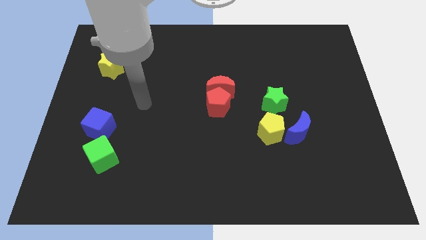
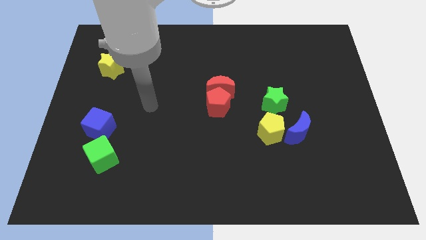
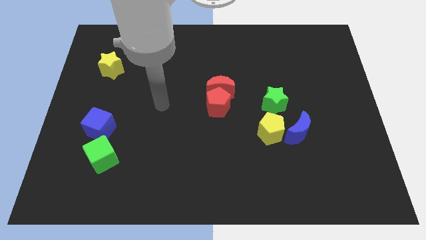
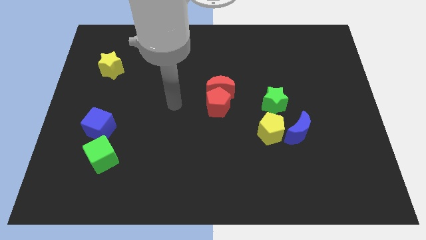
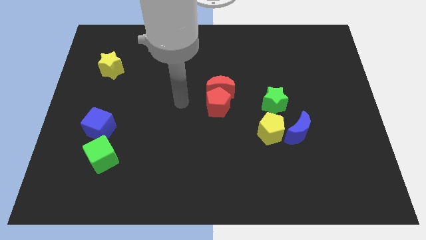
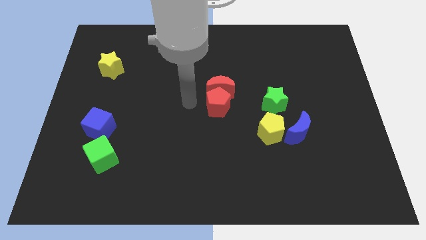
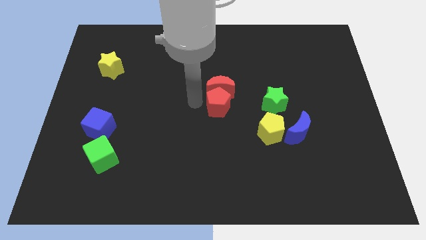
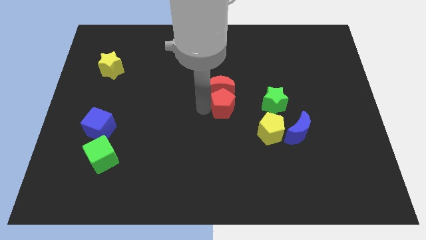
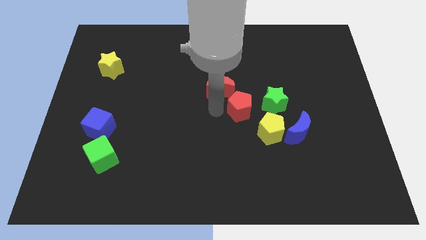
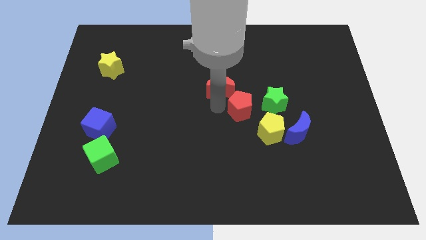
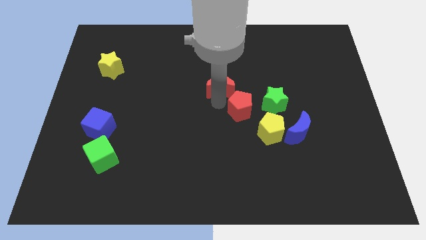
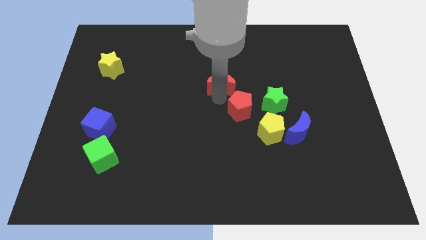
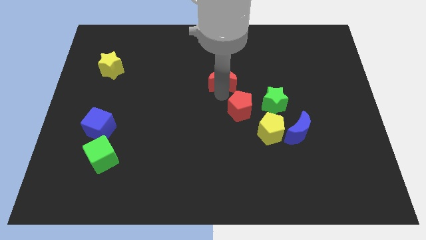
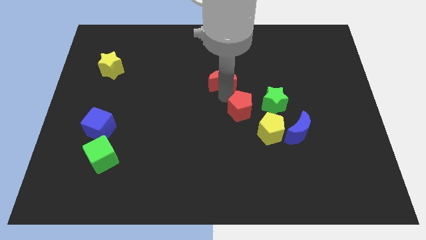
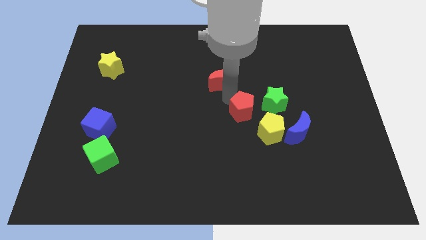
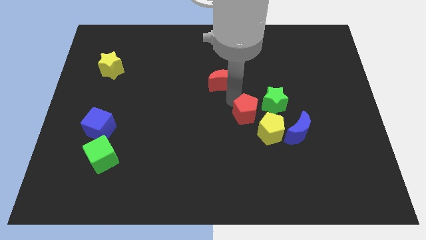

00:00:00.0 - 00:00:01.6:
move the red moon away from the red pentagon

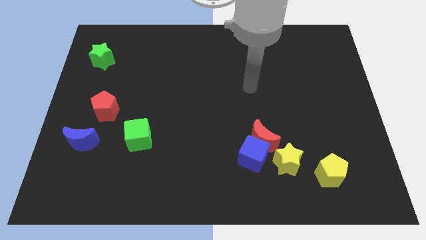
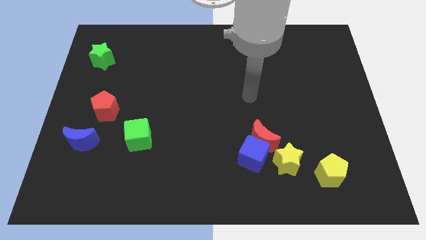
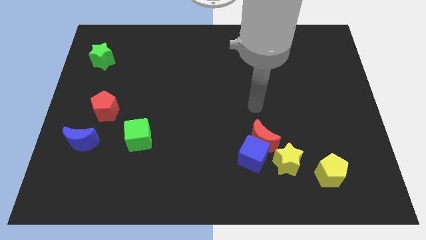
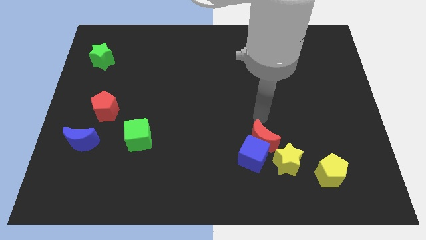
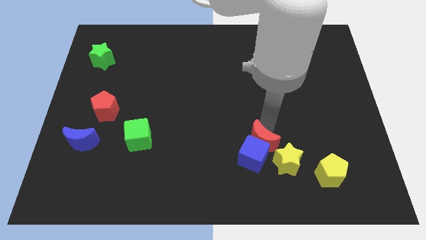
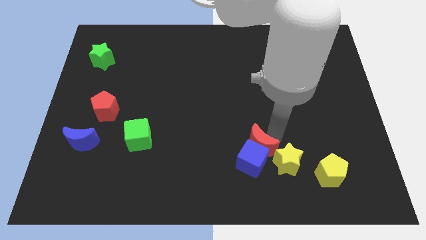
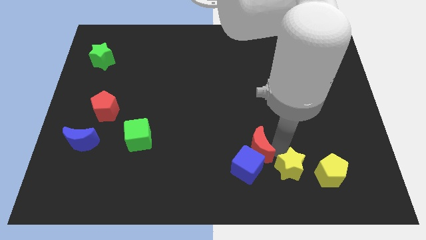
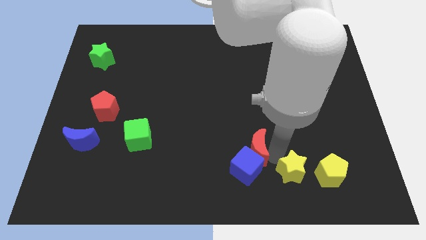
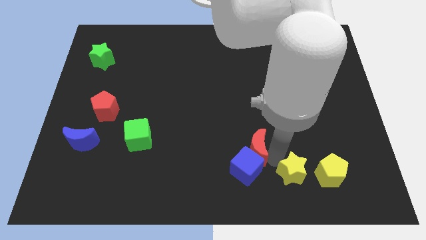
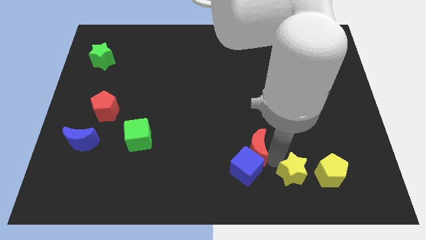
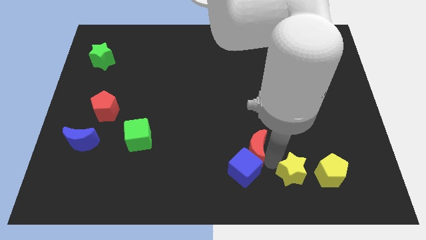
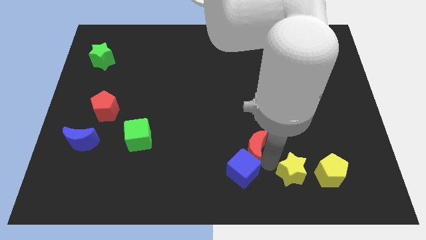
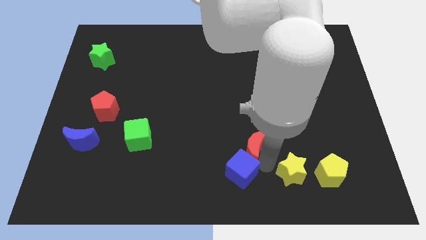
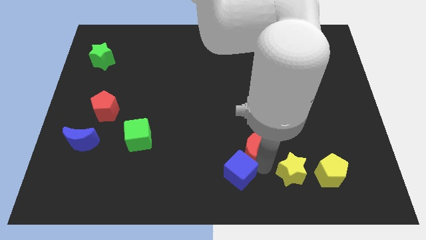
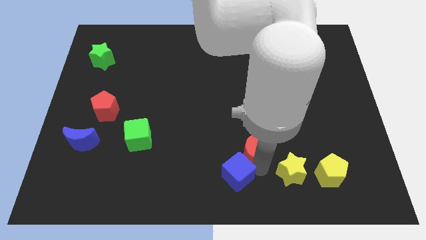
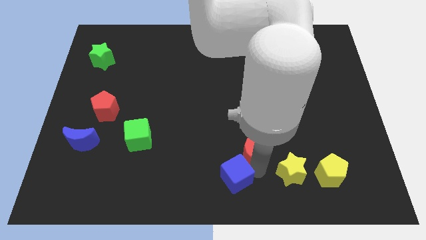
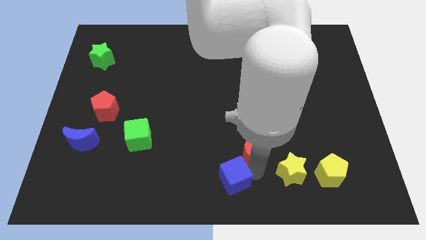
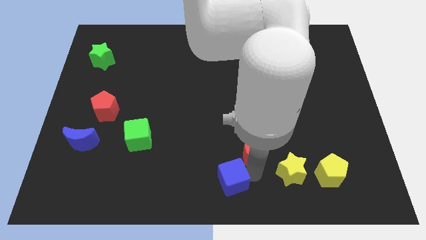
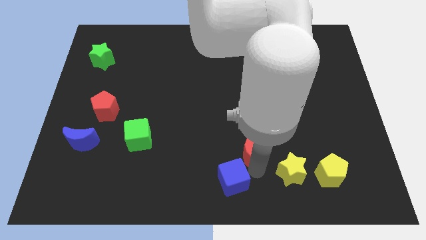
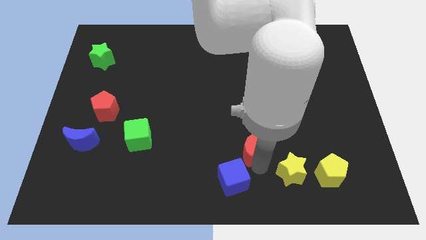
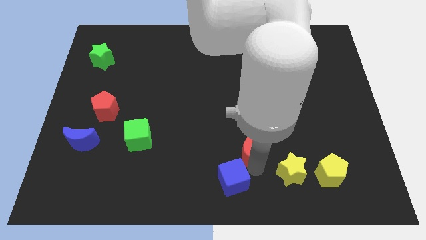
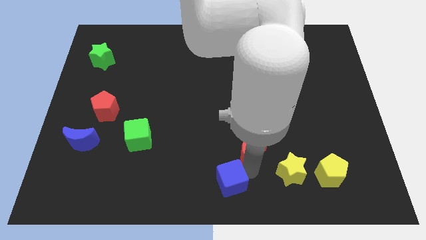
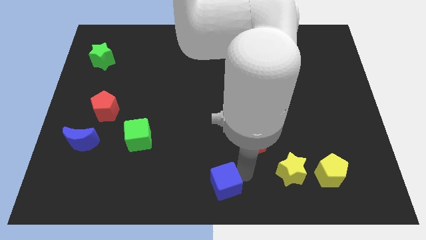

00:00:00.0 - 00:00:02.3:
separate the blue cube from the red moon and yellow star

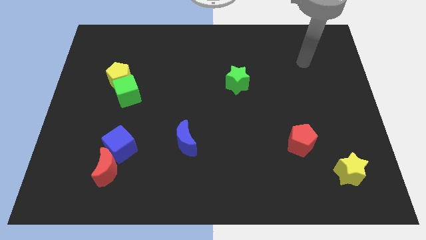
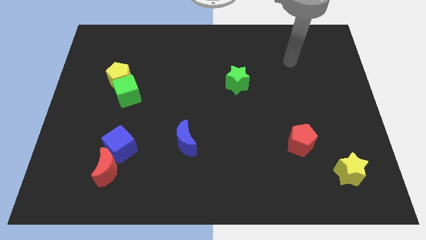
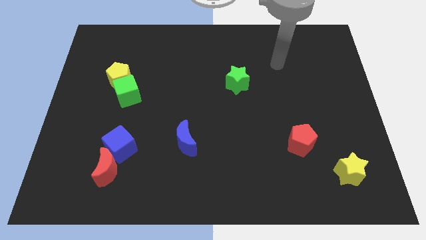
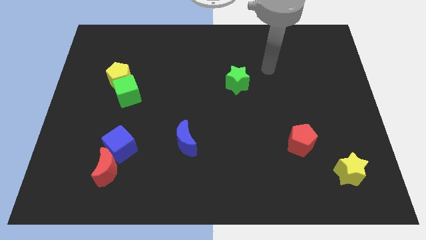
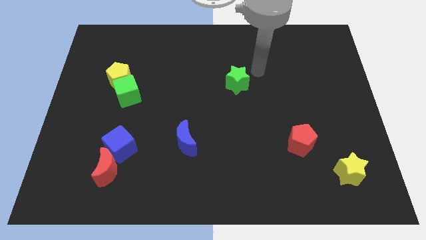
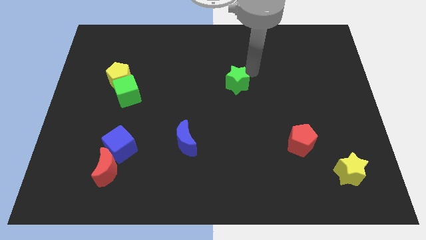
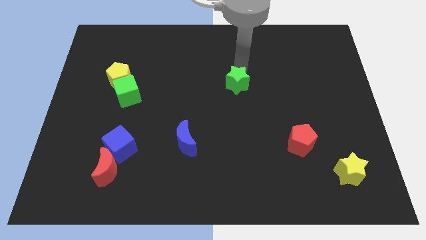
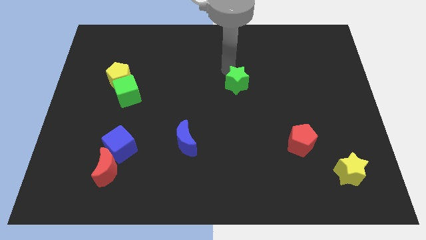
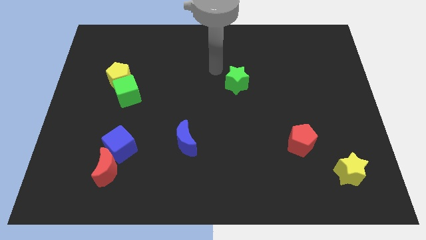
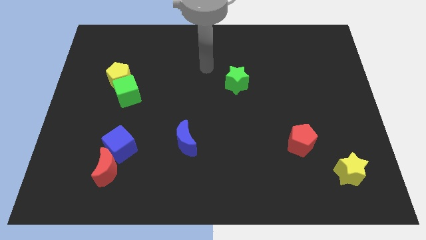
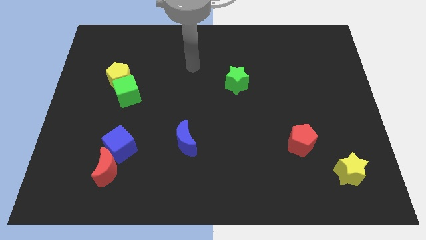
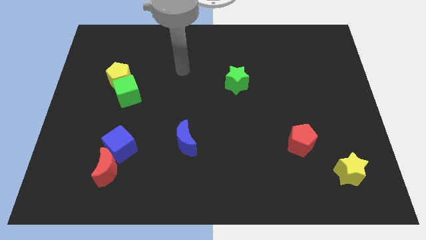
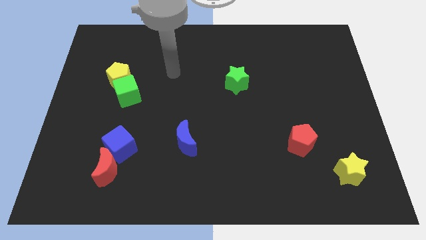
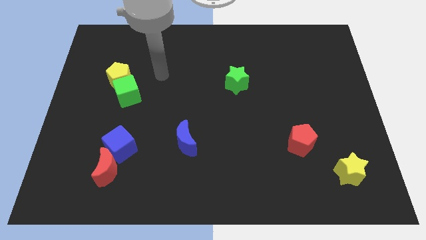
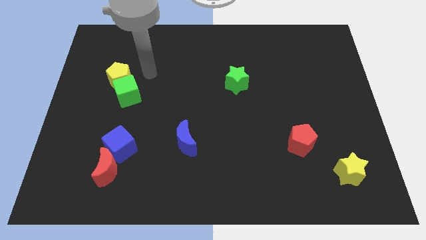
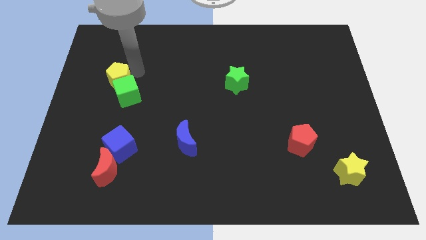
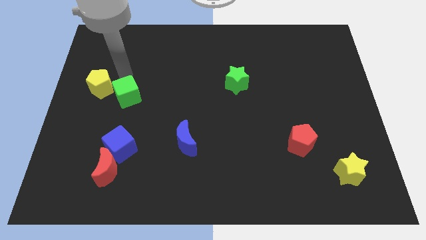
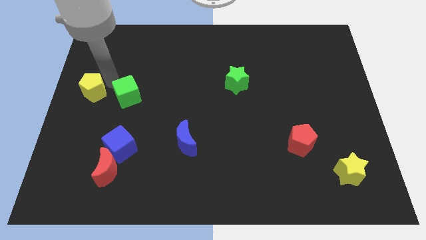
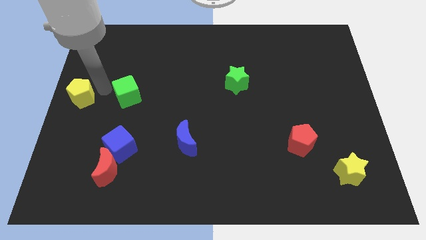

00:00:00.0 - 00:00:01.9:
move the green cube away from the yellow pentagon

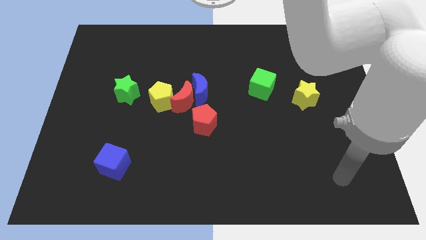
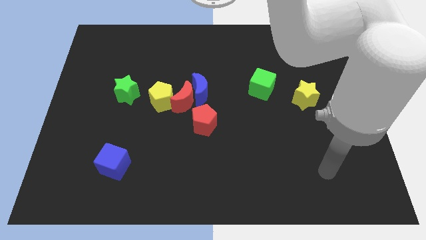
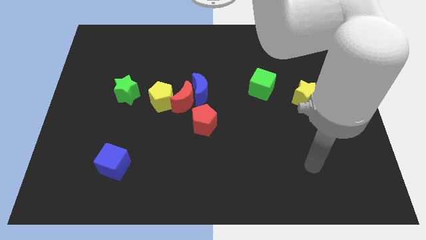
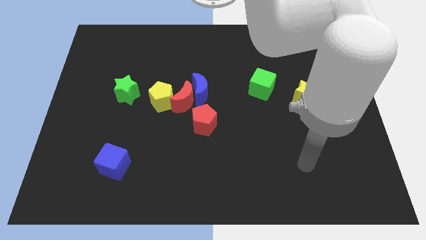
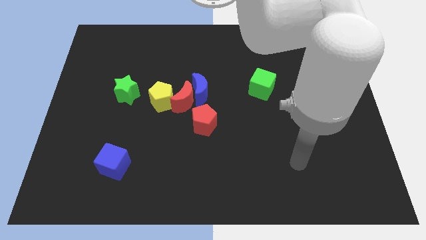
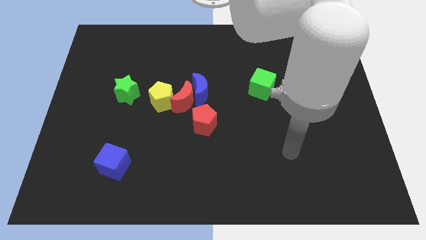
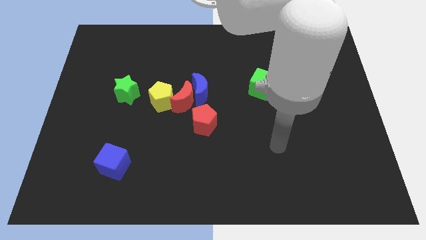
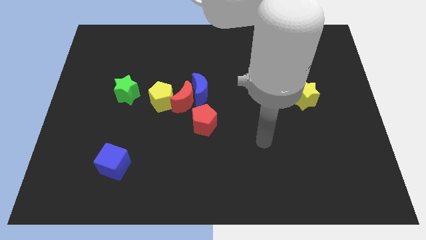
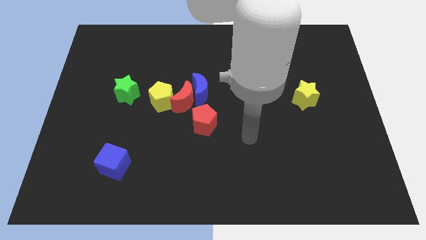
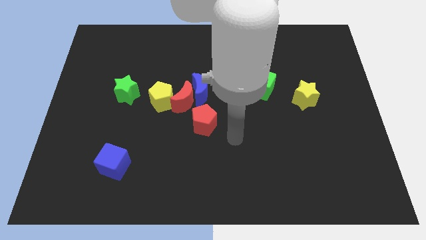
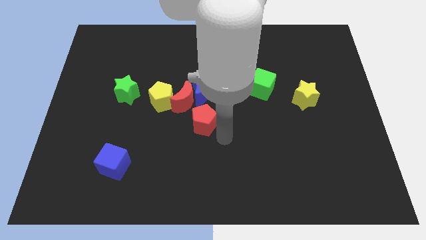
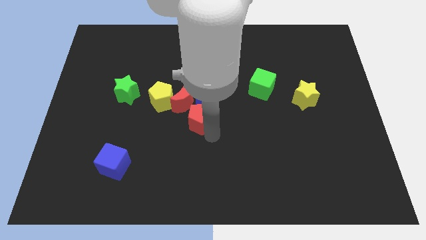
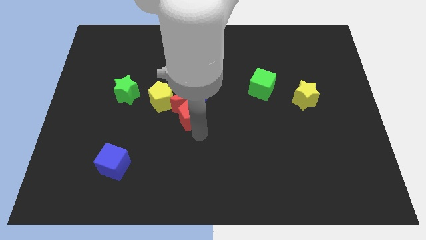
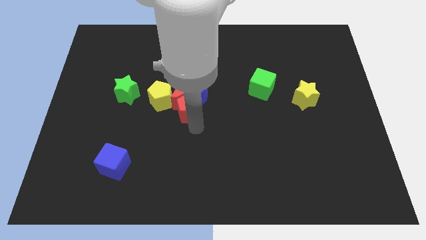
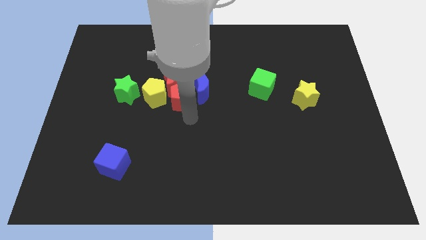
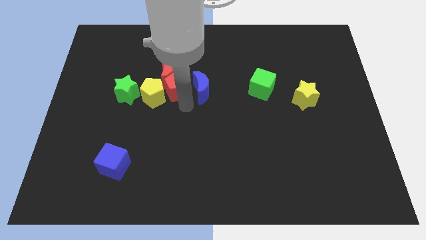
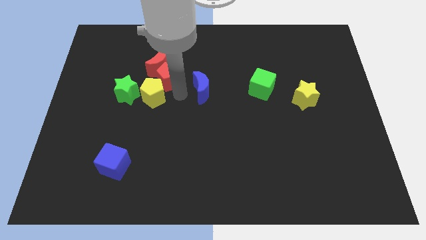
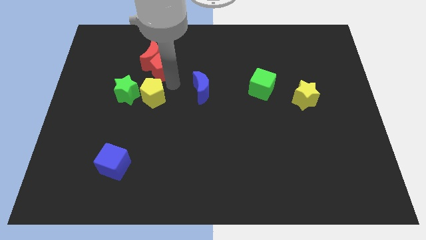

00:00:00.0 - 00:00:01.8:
pull the red moon apart from the blue moon, yellow pentagon, and red pentagon

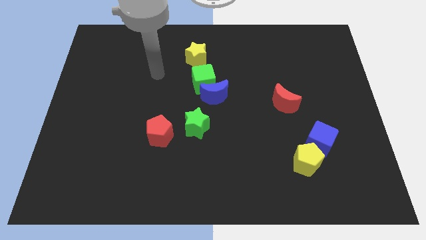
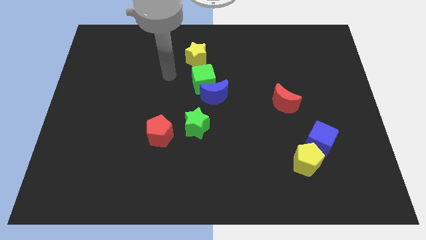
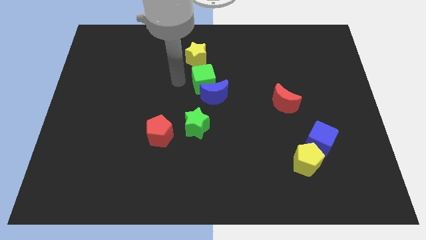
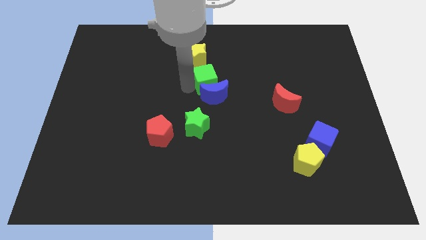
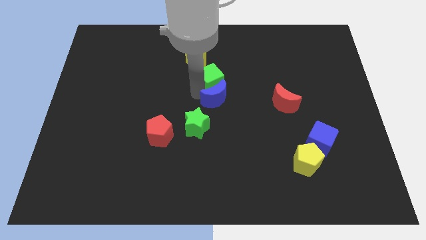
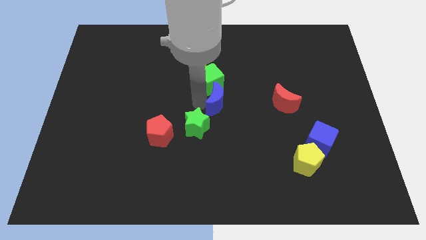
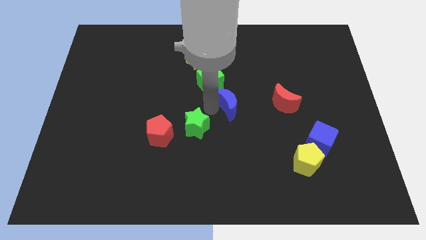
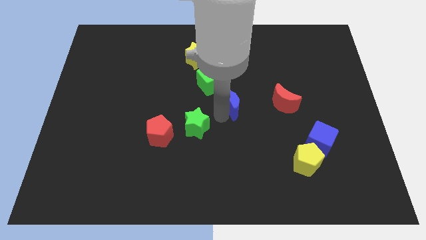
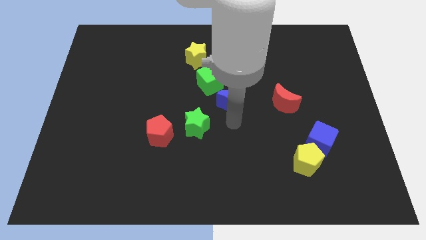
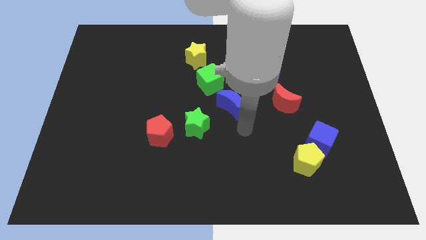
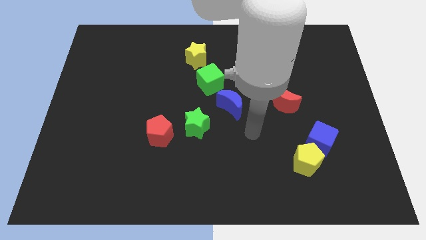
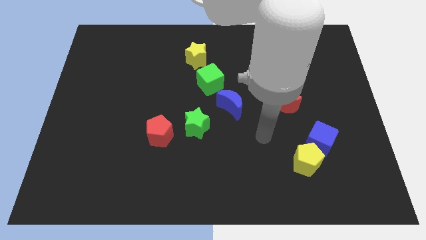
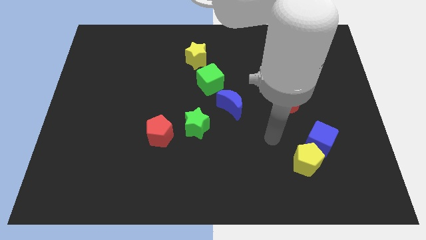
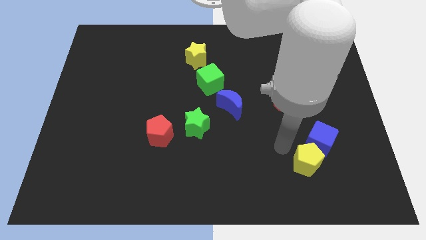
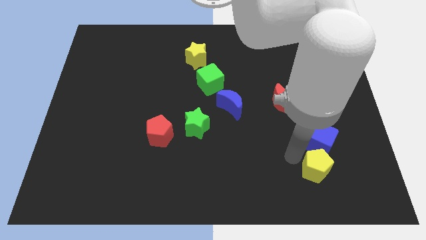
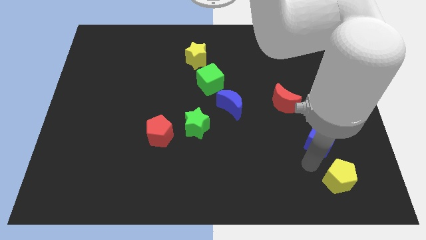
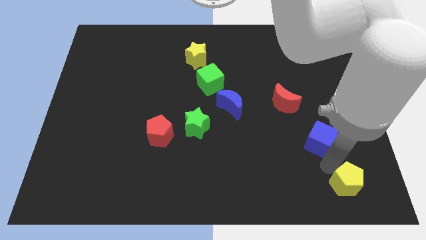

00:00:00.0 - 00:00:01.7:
pull the blue cube apart from the yellow pentagon
